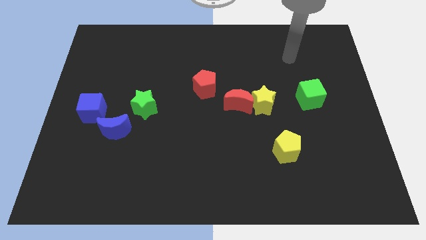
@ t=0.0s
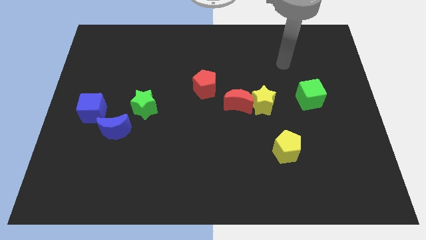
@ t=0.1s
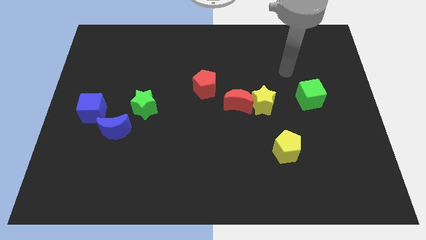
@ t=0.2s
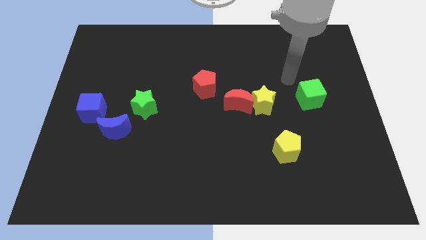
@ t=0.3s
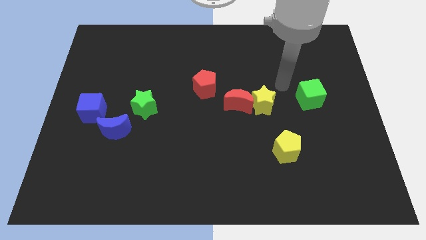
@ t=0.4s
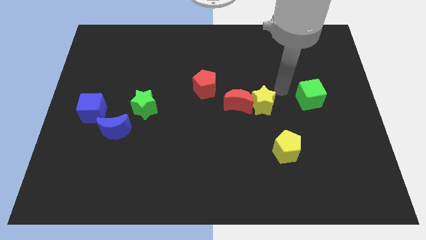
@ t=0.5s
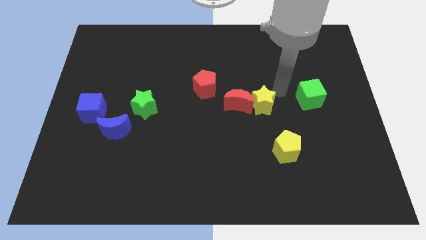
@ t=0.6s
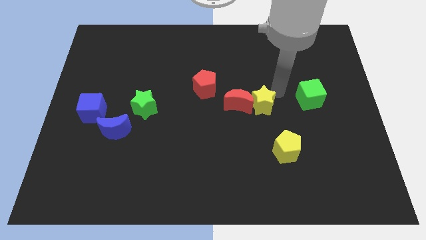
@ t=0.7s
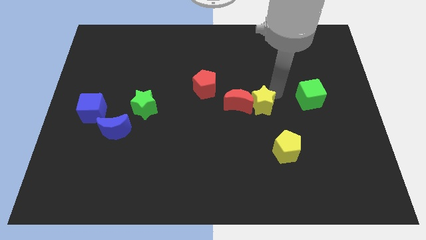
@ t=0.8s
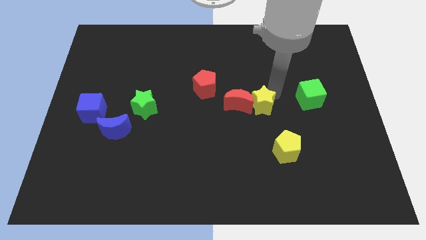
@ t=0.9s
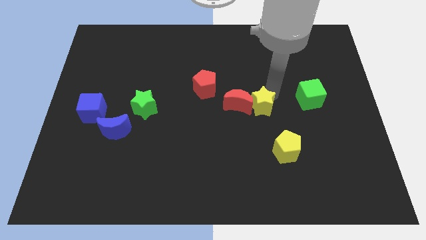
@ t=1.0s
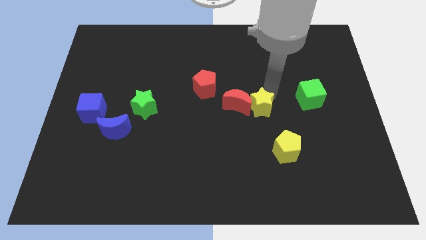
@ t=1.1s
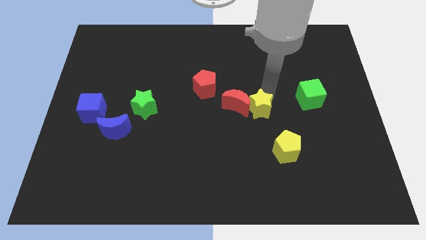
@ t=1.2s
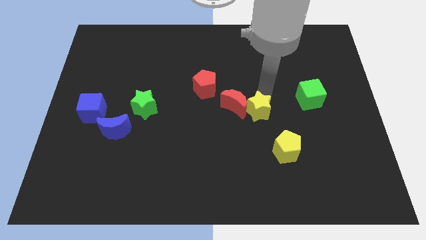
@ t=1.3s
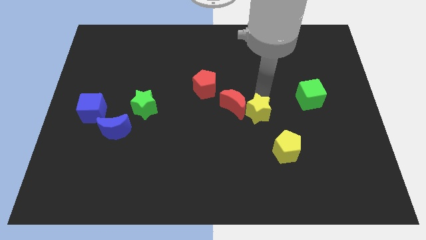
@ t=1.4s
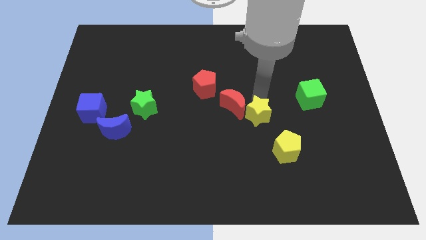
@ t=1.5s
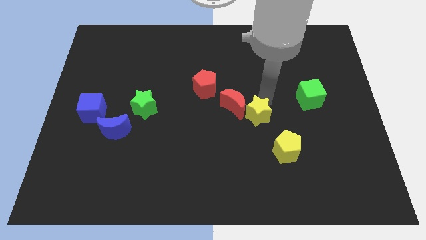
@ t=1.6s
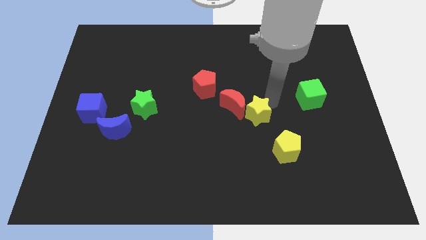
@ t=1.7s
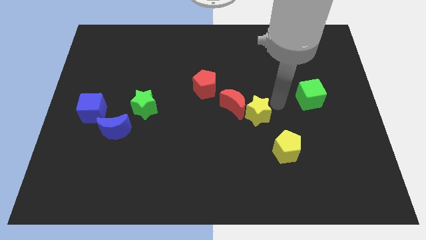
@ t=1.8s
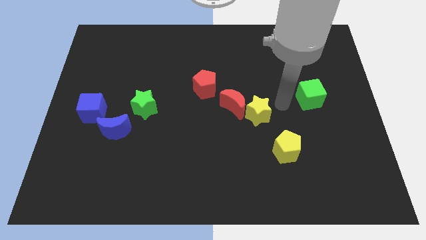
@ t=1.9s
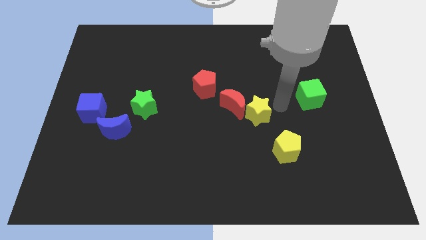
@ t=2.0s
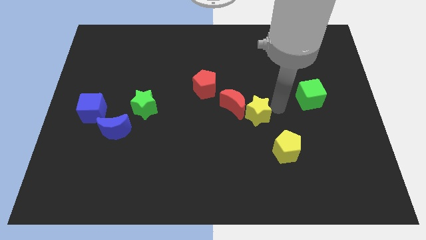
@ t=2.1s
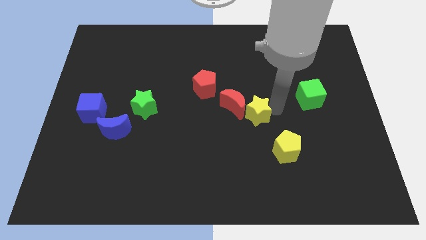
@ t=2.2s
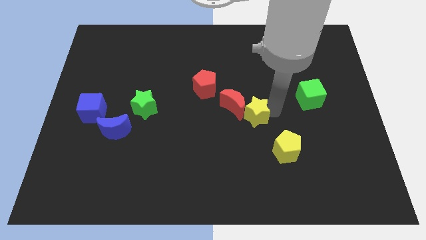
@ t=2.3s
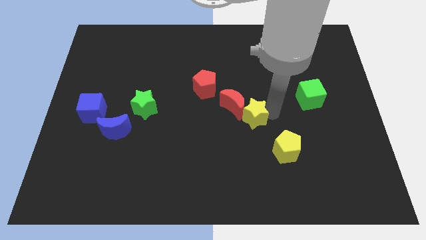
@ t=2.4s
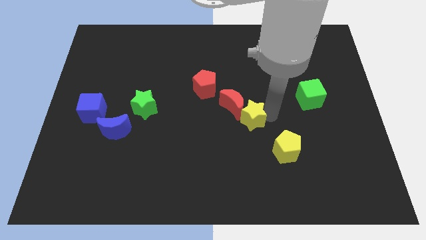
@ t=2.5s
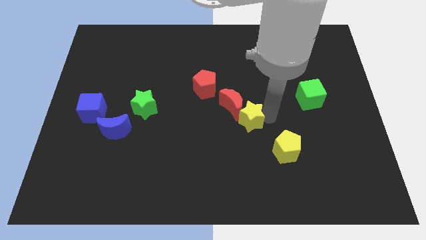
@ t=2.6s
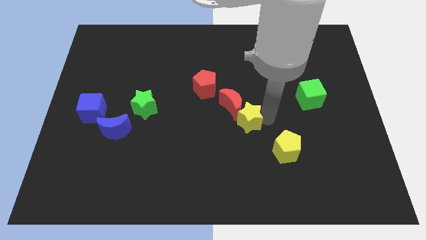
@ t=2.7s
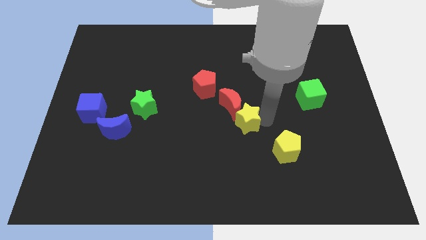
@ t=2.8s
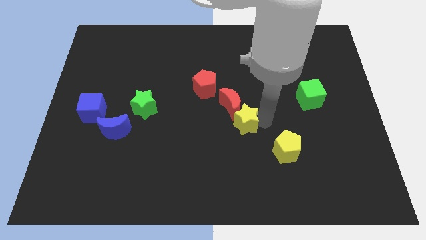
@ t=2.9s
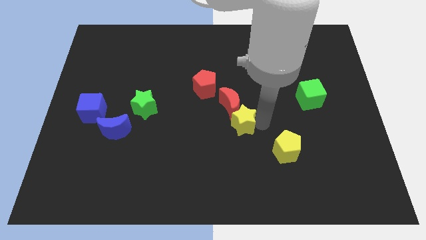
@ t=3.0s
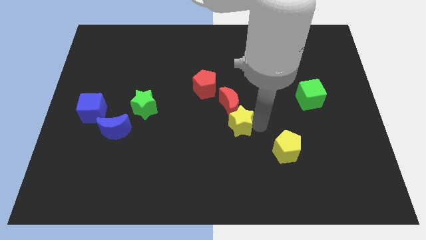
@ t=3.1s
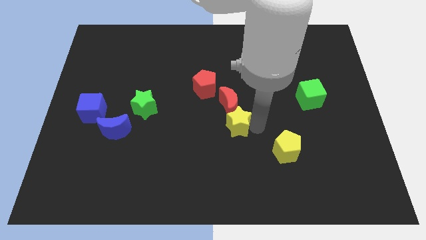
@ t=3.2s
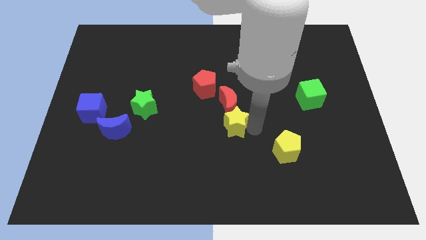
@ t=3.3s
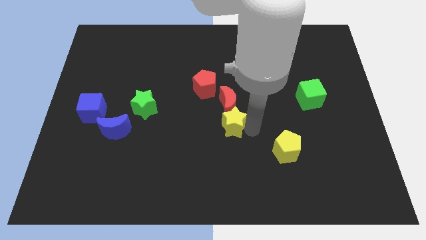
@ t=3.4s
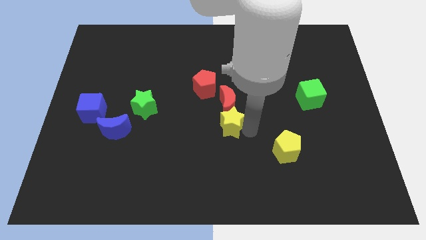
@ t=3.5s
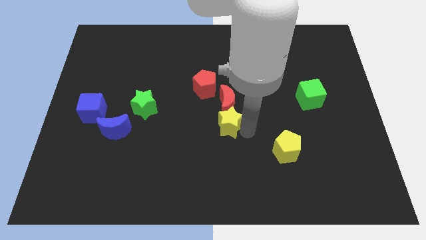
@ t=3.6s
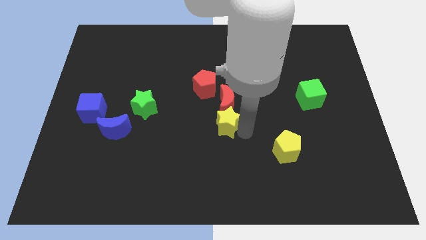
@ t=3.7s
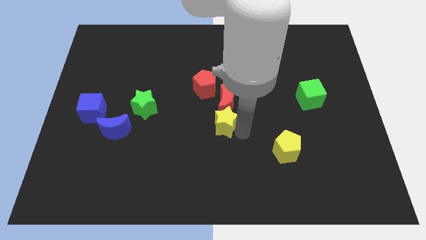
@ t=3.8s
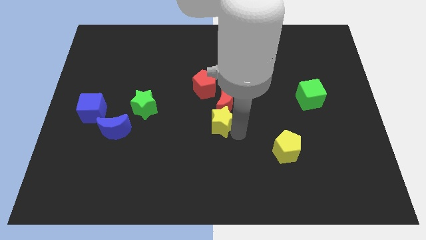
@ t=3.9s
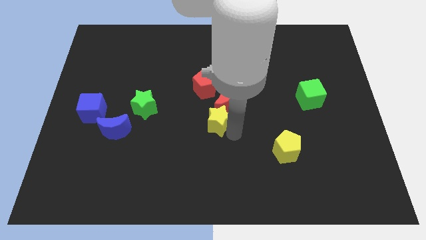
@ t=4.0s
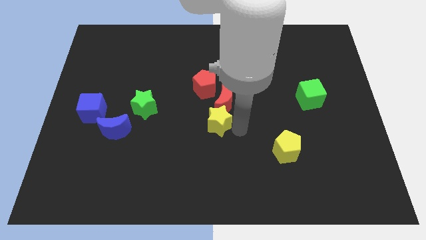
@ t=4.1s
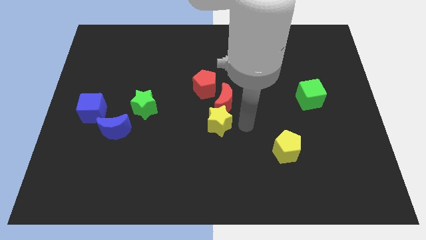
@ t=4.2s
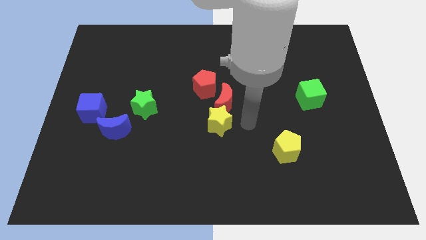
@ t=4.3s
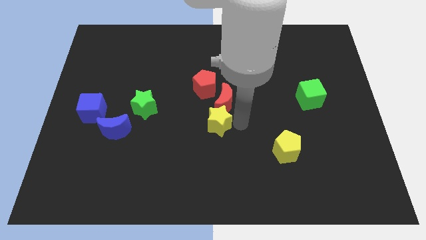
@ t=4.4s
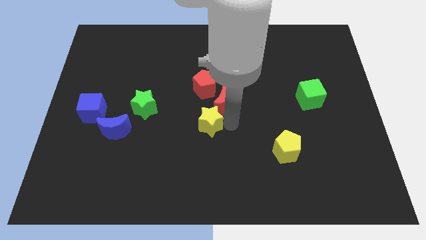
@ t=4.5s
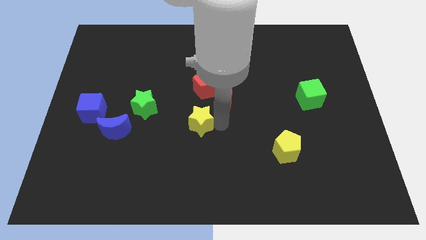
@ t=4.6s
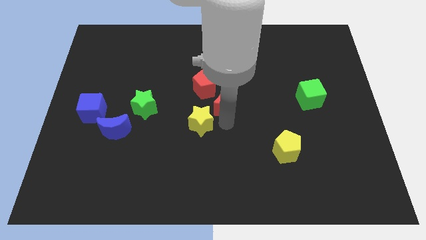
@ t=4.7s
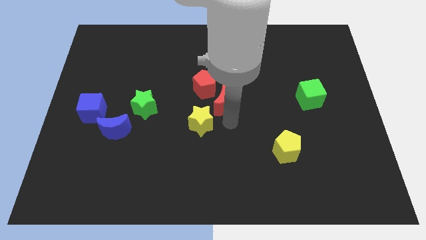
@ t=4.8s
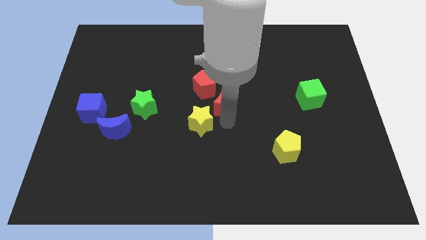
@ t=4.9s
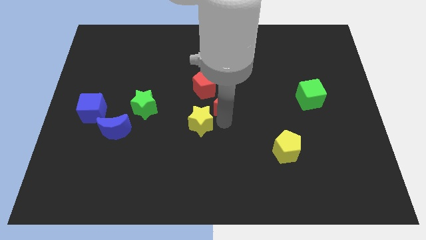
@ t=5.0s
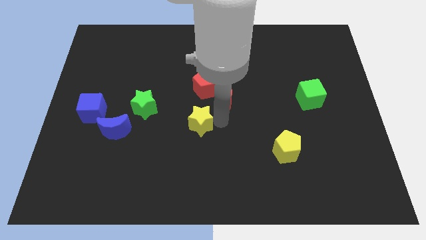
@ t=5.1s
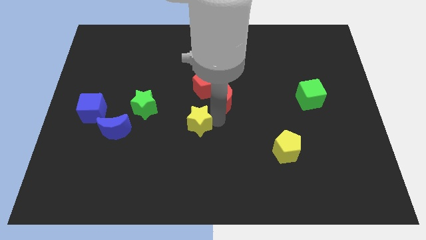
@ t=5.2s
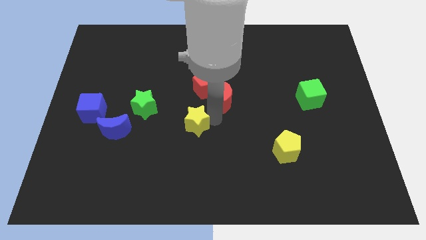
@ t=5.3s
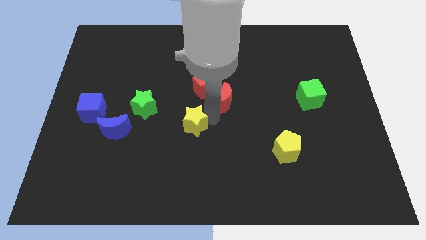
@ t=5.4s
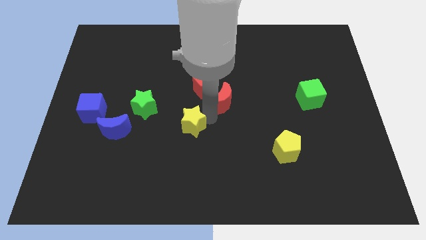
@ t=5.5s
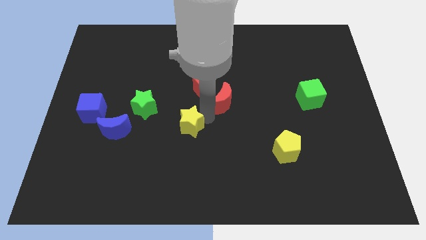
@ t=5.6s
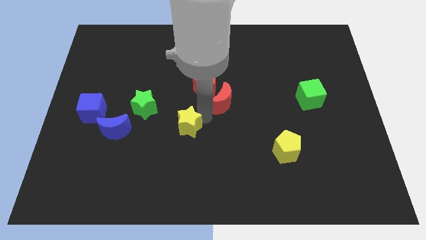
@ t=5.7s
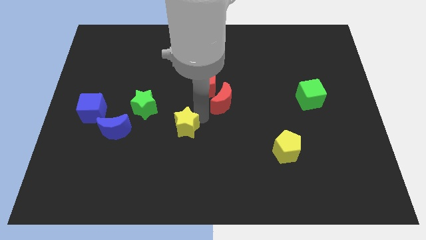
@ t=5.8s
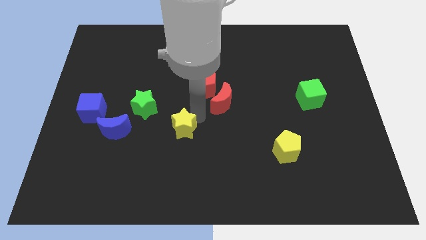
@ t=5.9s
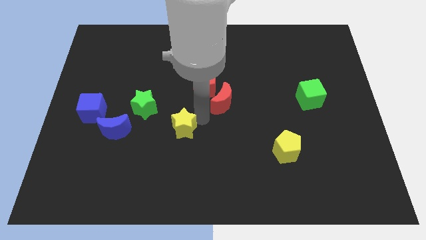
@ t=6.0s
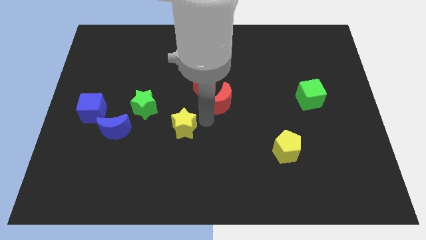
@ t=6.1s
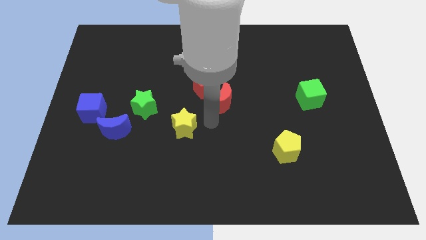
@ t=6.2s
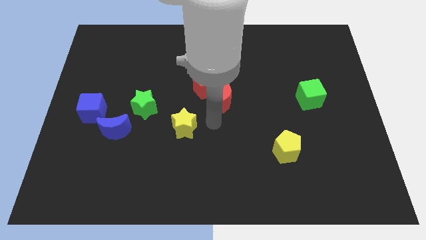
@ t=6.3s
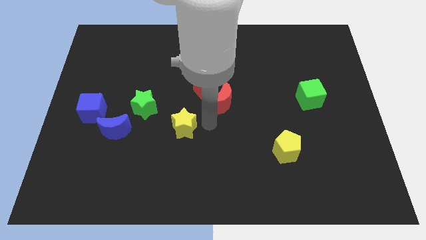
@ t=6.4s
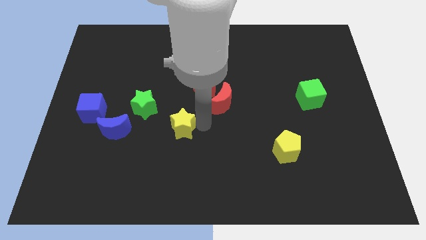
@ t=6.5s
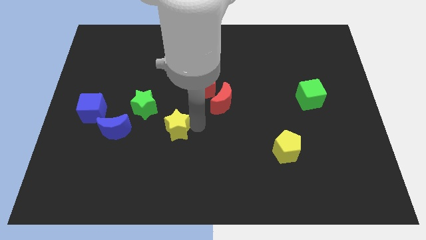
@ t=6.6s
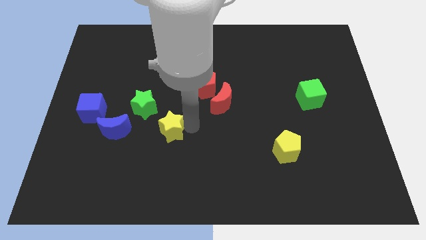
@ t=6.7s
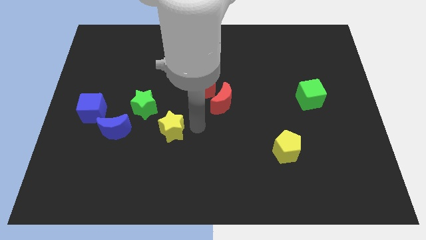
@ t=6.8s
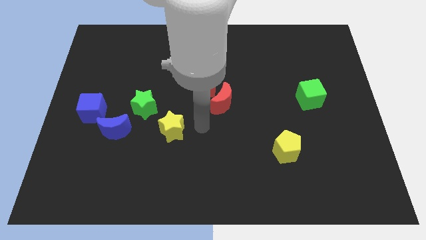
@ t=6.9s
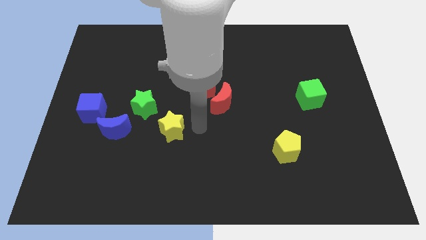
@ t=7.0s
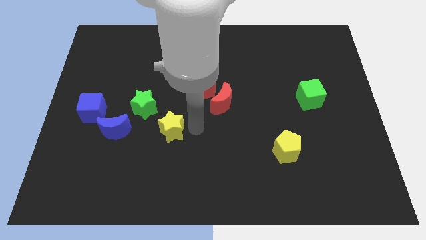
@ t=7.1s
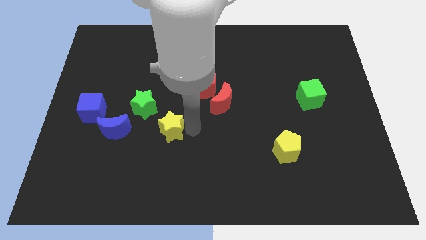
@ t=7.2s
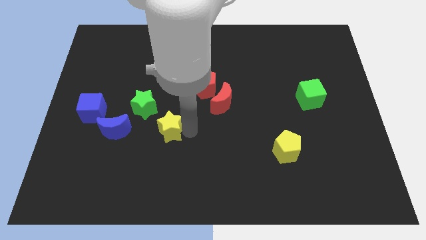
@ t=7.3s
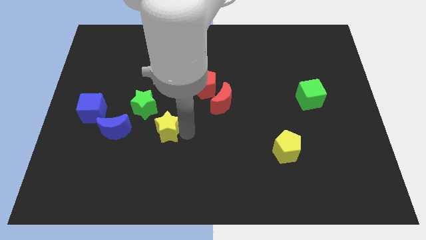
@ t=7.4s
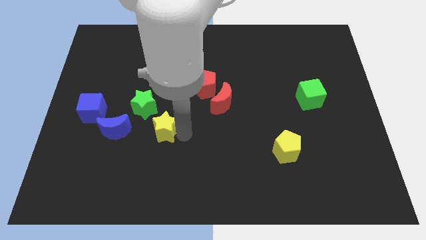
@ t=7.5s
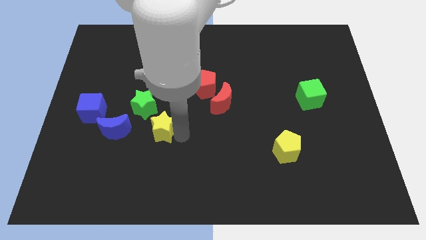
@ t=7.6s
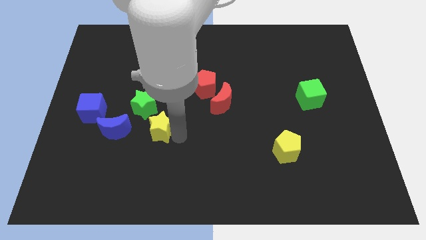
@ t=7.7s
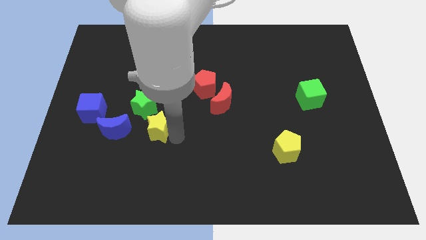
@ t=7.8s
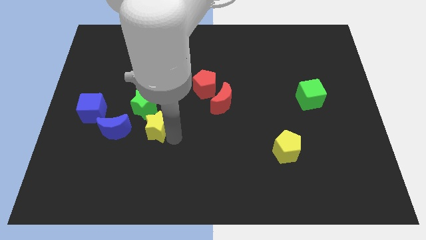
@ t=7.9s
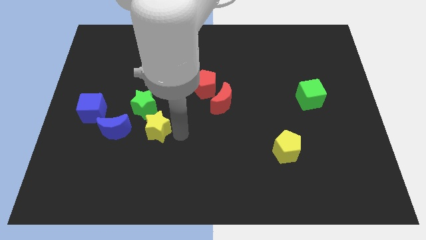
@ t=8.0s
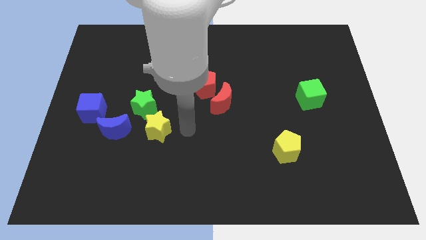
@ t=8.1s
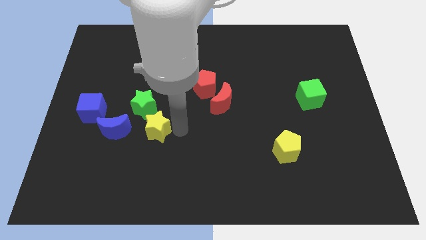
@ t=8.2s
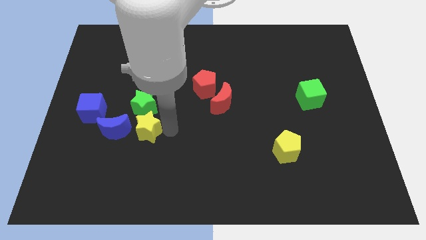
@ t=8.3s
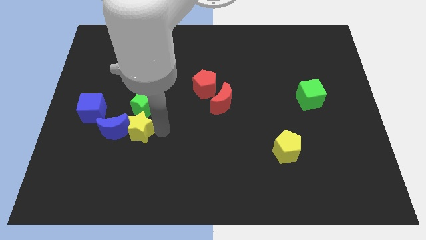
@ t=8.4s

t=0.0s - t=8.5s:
put the yellow star close to the blue moon
